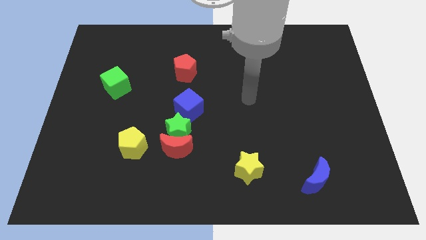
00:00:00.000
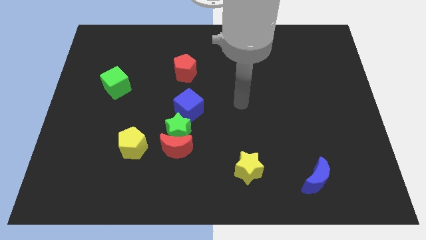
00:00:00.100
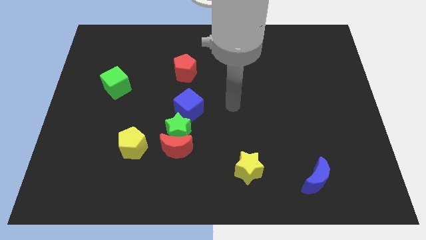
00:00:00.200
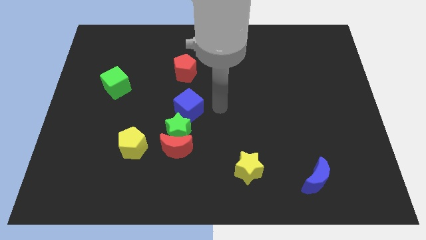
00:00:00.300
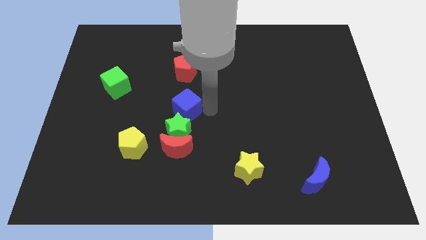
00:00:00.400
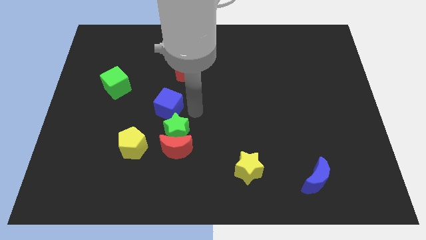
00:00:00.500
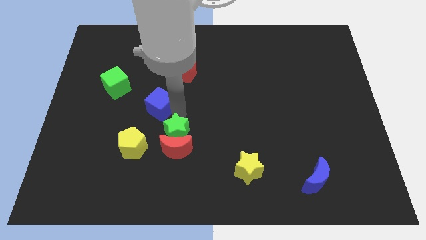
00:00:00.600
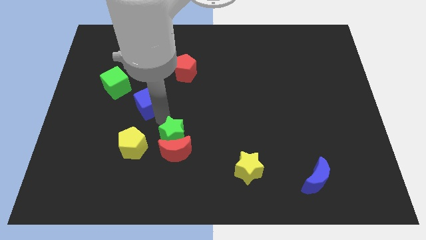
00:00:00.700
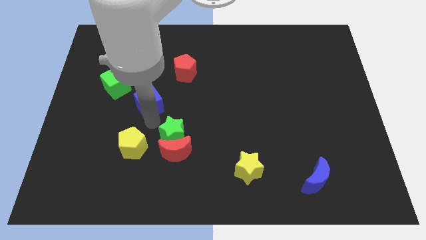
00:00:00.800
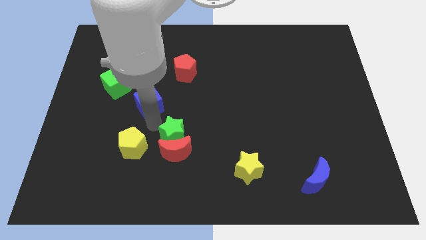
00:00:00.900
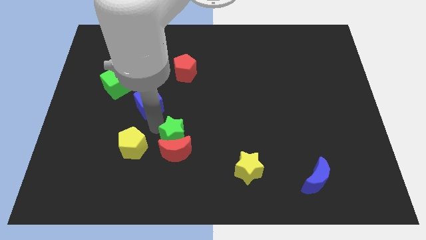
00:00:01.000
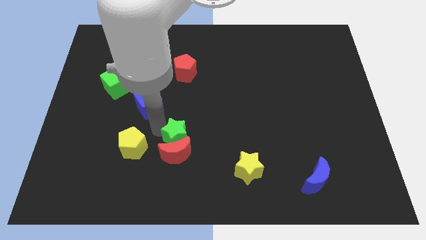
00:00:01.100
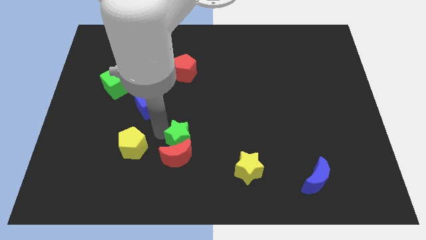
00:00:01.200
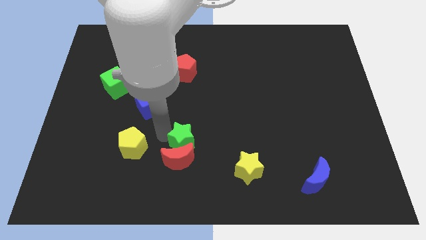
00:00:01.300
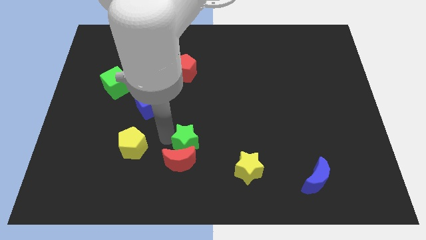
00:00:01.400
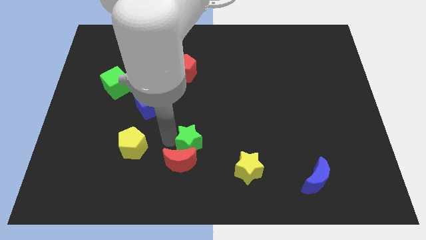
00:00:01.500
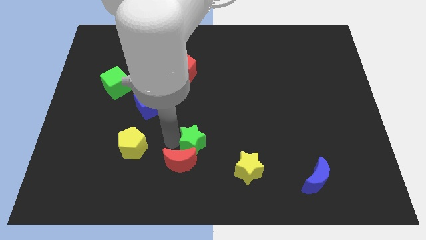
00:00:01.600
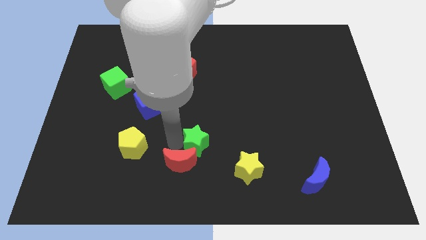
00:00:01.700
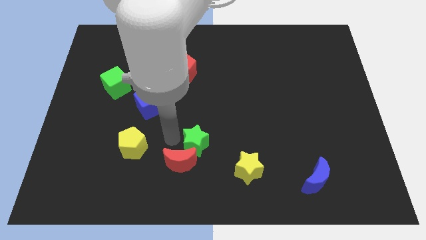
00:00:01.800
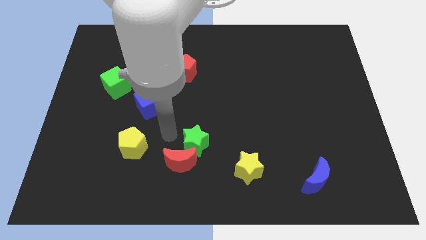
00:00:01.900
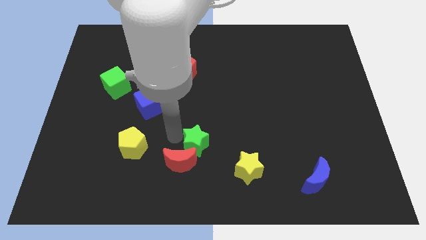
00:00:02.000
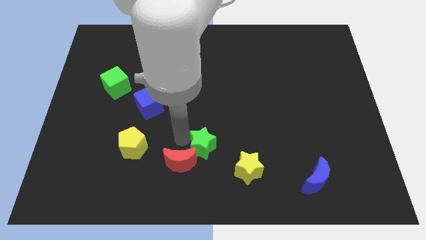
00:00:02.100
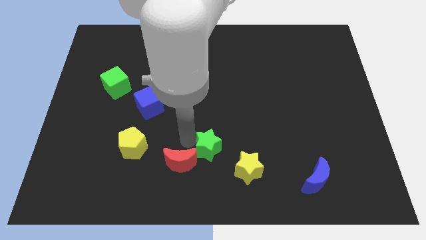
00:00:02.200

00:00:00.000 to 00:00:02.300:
pull the green star apart from the red moon and blue cube

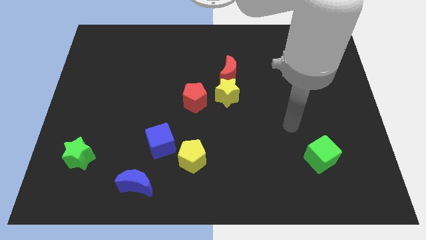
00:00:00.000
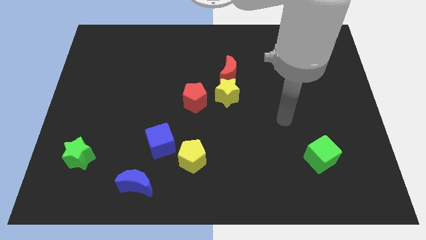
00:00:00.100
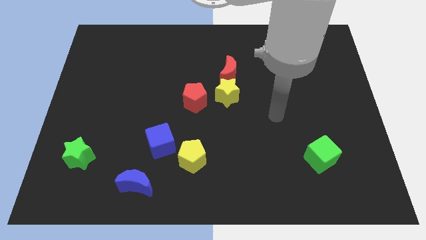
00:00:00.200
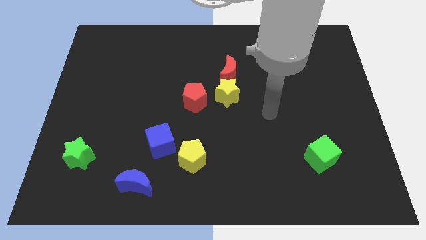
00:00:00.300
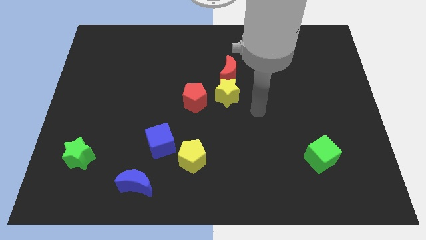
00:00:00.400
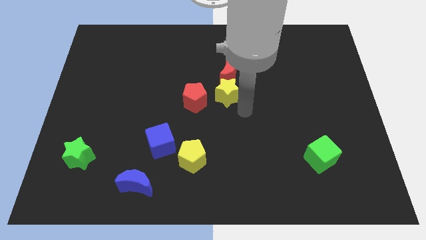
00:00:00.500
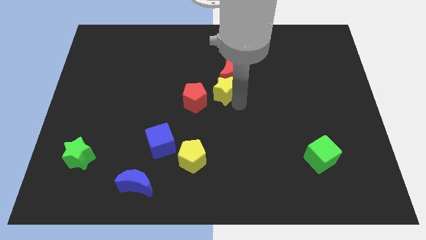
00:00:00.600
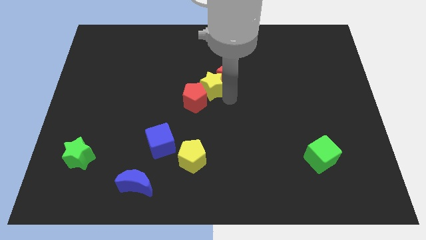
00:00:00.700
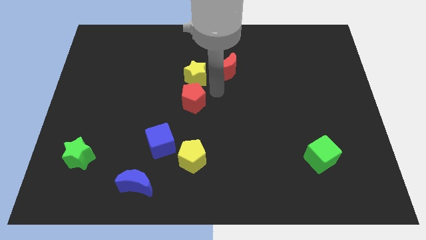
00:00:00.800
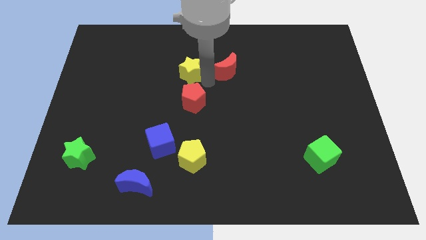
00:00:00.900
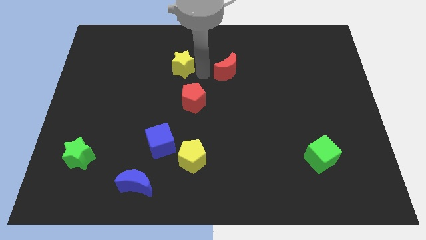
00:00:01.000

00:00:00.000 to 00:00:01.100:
pull the red moon apart from the yellow star

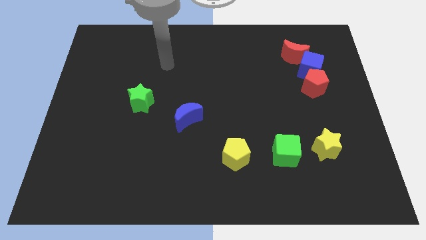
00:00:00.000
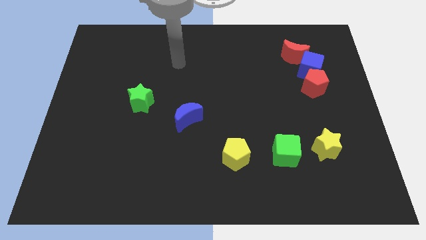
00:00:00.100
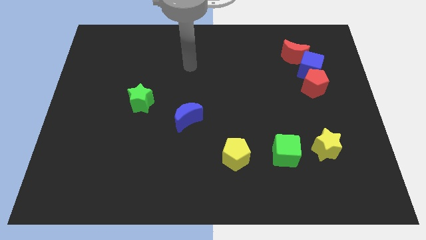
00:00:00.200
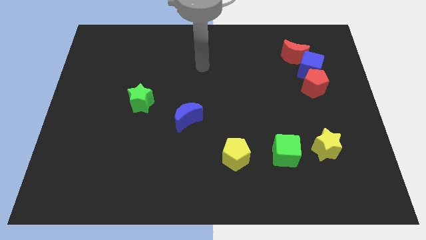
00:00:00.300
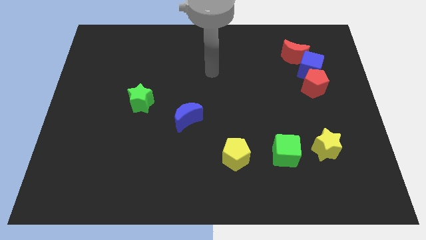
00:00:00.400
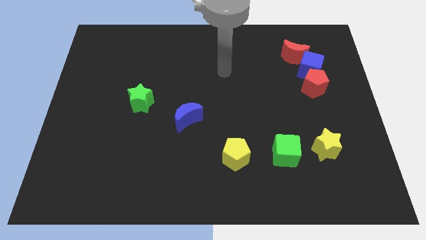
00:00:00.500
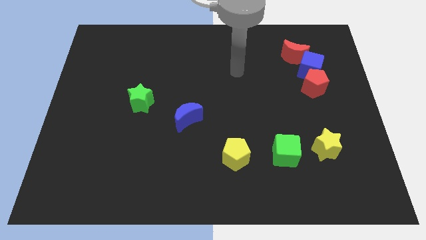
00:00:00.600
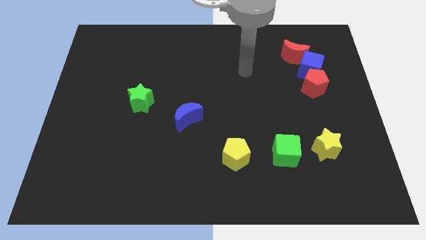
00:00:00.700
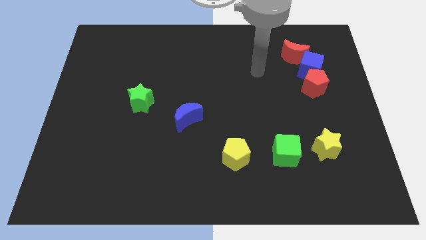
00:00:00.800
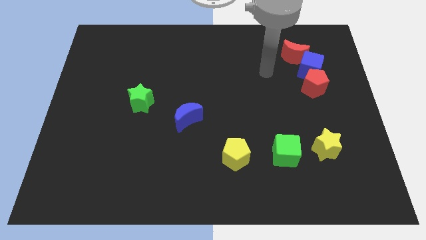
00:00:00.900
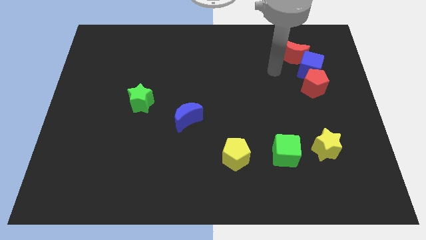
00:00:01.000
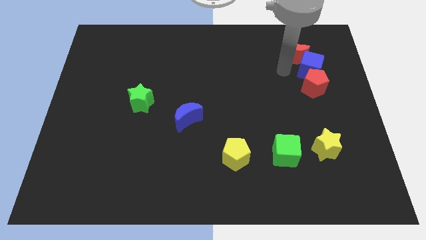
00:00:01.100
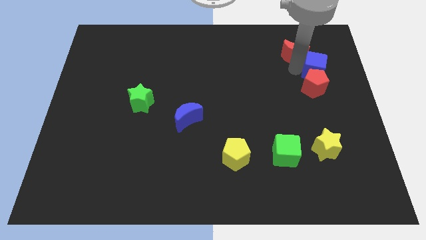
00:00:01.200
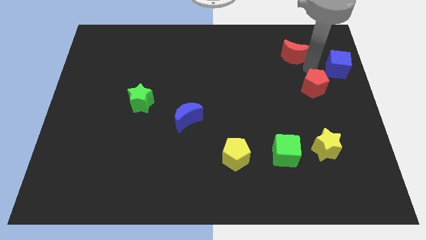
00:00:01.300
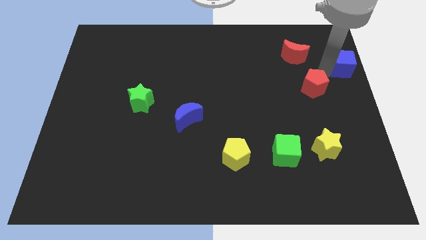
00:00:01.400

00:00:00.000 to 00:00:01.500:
move the red pentagon away from the blue cube

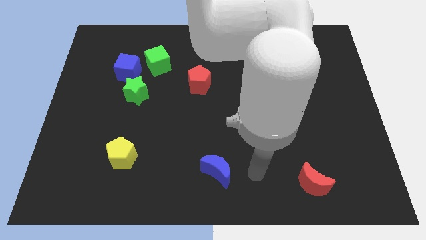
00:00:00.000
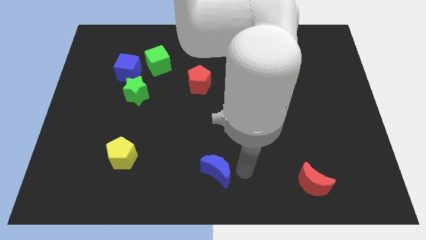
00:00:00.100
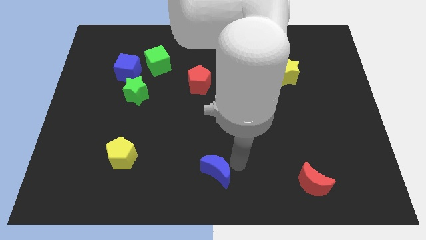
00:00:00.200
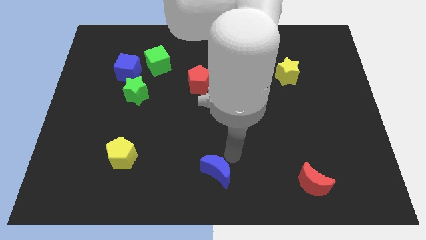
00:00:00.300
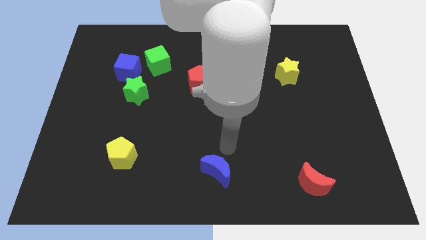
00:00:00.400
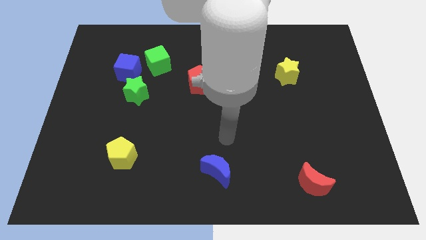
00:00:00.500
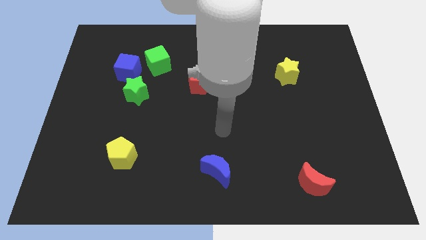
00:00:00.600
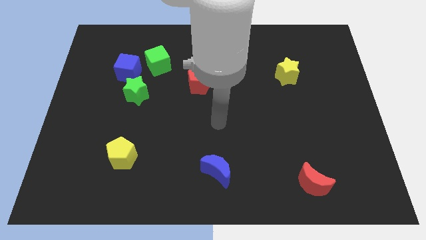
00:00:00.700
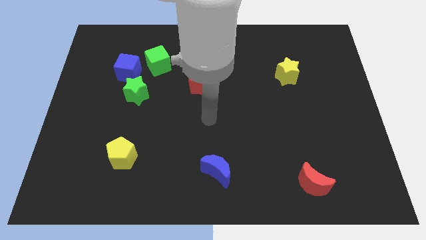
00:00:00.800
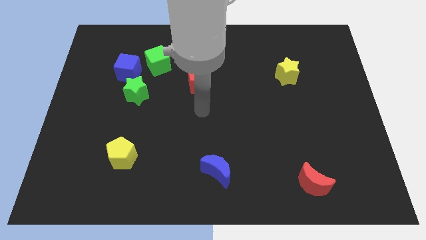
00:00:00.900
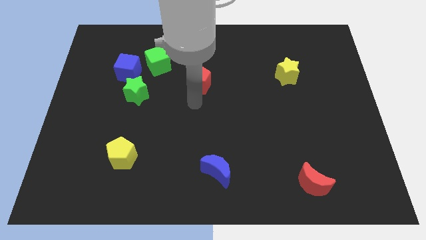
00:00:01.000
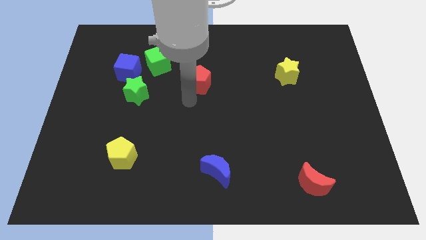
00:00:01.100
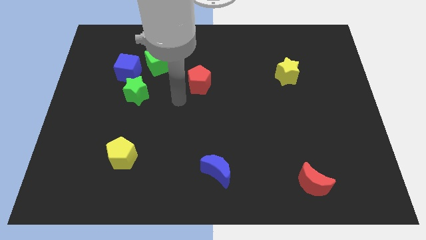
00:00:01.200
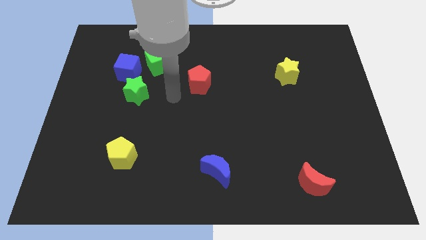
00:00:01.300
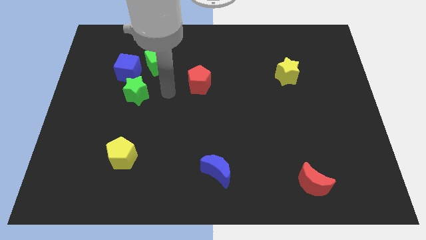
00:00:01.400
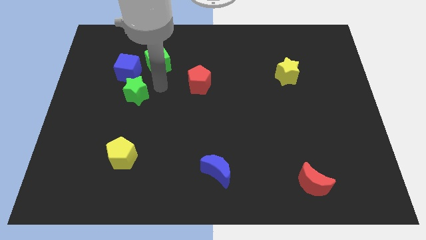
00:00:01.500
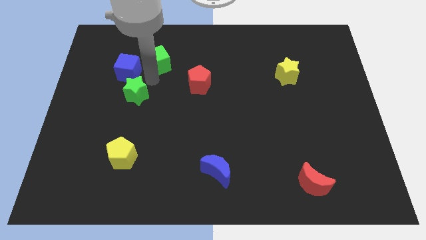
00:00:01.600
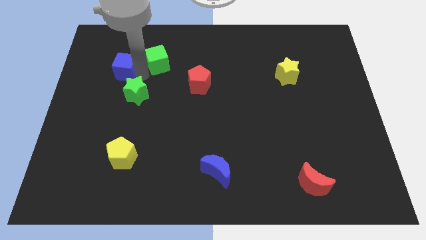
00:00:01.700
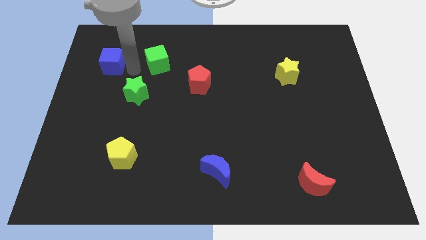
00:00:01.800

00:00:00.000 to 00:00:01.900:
move the green cube away from the blue cube

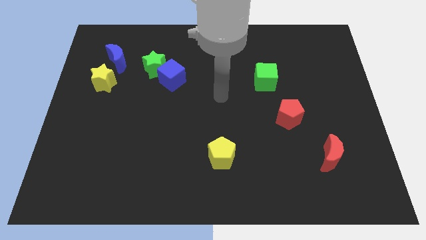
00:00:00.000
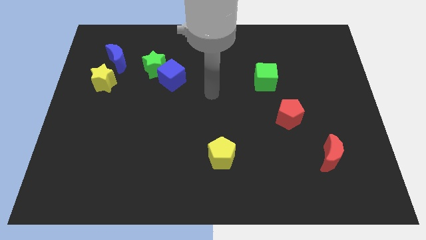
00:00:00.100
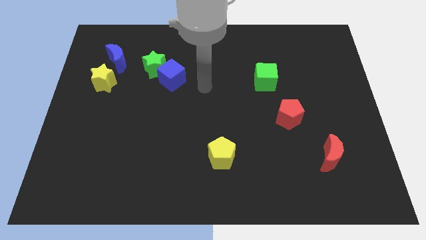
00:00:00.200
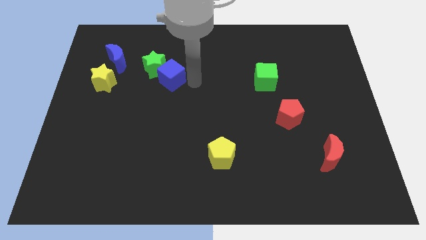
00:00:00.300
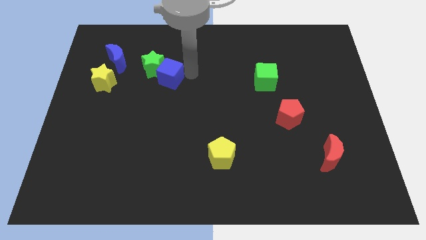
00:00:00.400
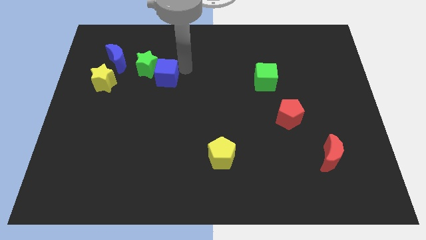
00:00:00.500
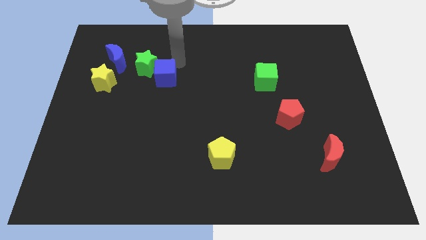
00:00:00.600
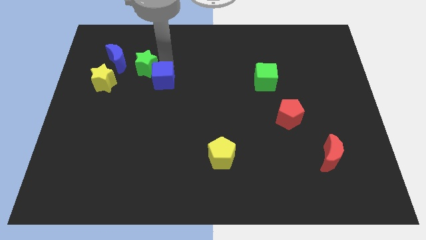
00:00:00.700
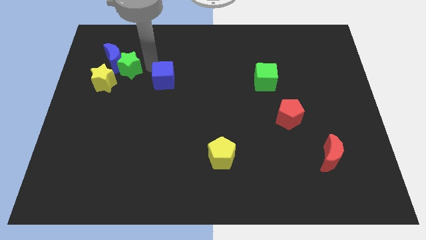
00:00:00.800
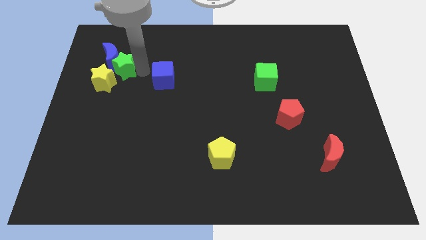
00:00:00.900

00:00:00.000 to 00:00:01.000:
pull the blue cube apart from the green star

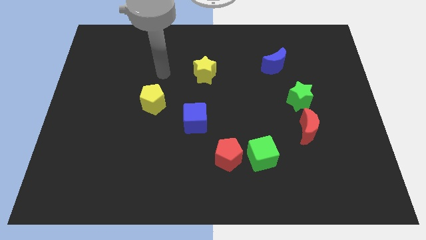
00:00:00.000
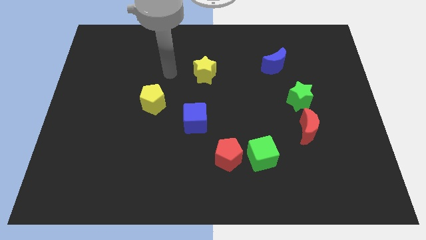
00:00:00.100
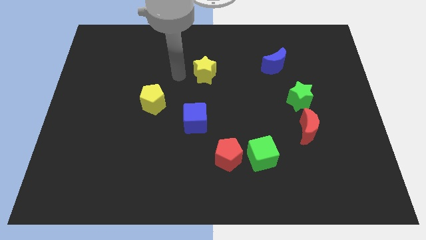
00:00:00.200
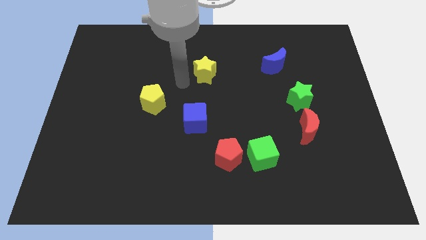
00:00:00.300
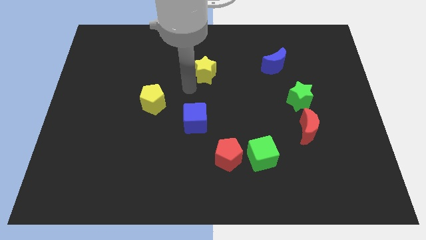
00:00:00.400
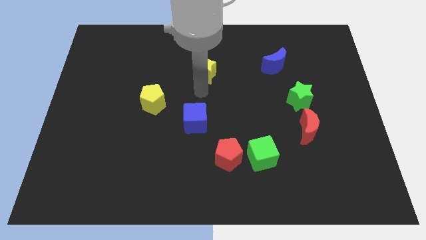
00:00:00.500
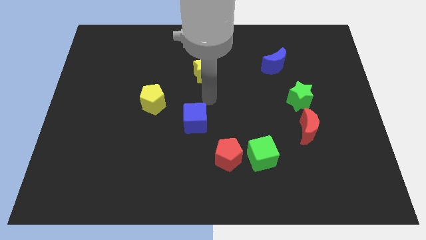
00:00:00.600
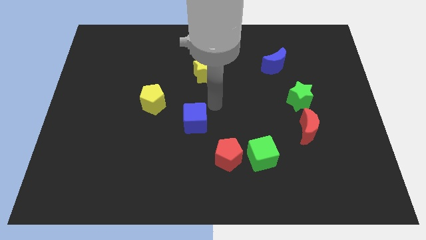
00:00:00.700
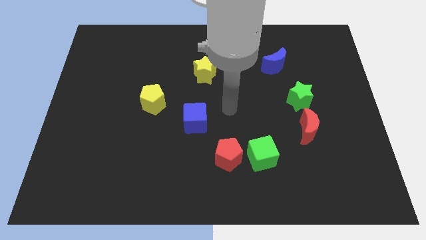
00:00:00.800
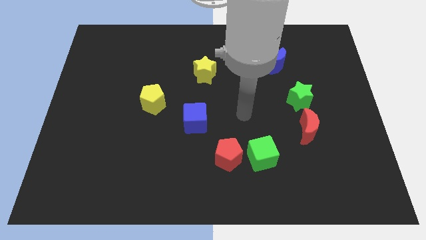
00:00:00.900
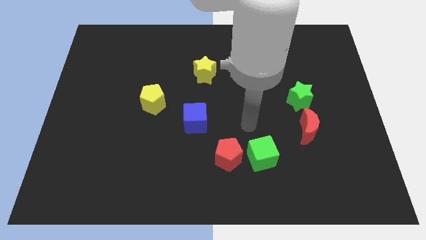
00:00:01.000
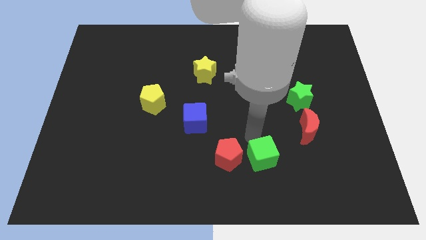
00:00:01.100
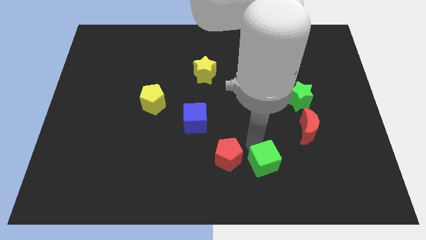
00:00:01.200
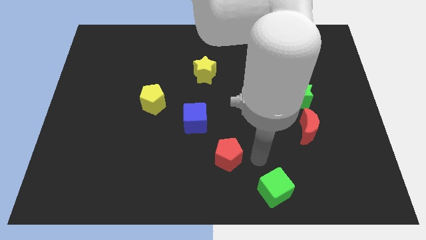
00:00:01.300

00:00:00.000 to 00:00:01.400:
pull the red pentagon apart from the green cube
